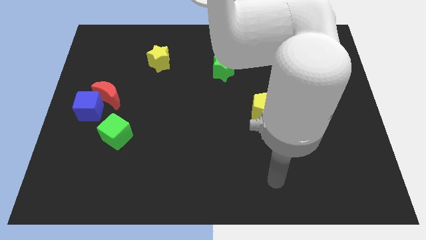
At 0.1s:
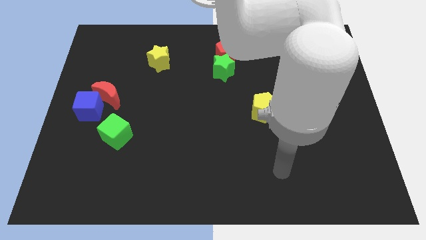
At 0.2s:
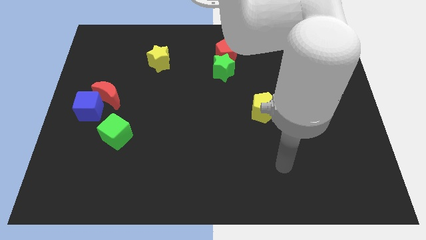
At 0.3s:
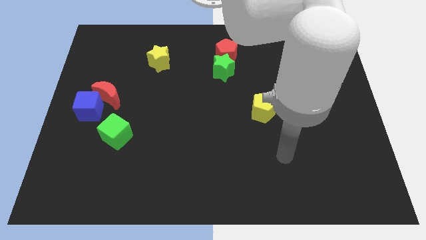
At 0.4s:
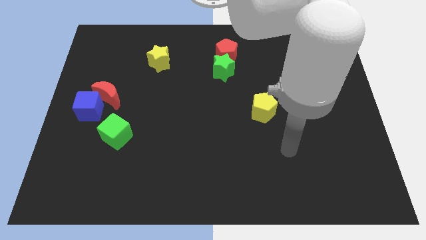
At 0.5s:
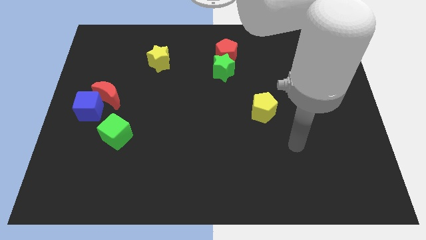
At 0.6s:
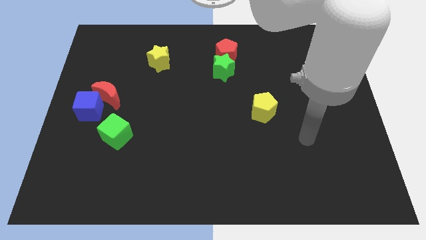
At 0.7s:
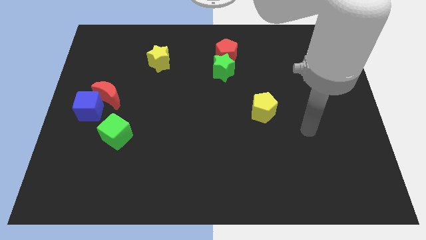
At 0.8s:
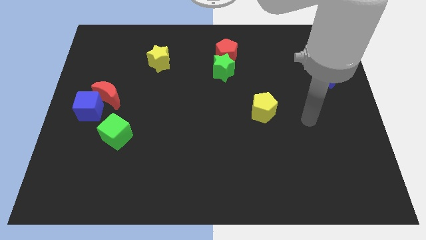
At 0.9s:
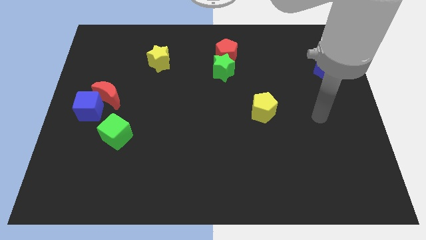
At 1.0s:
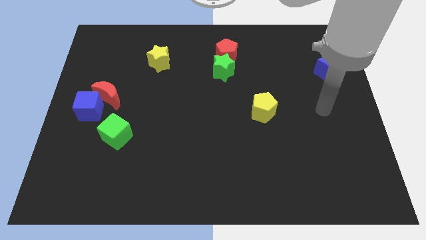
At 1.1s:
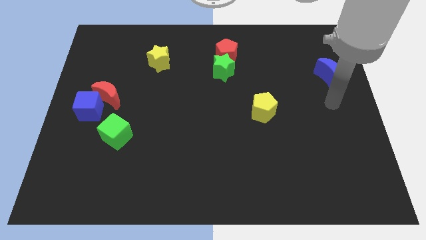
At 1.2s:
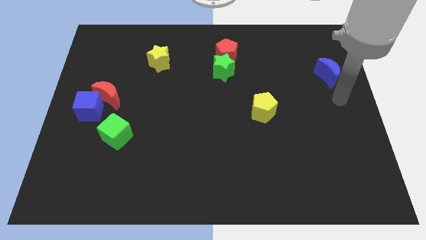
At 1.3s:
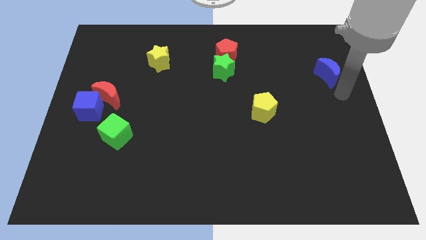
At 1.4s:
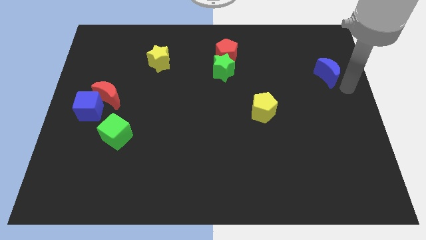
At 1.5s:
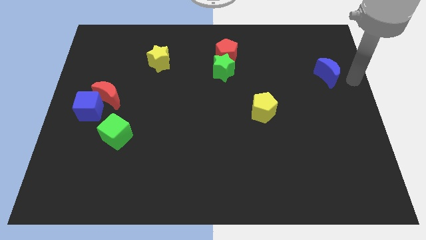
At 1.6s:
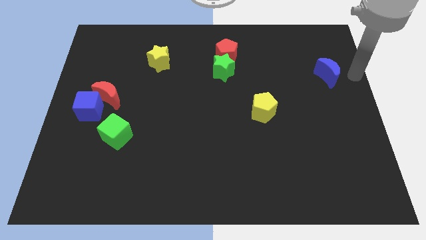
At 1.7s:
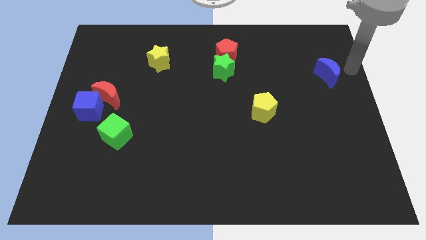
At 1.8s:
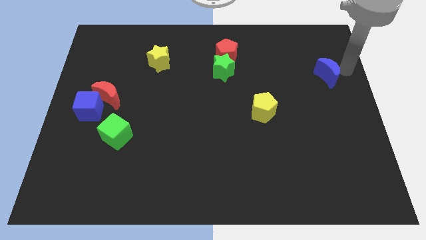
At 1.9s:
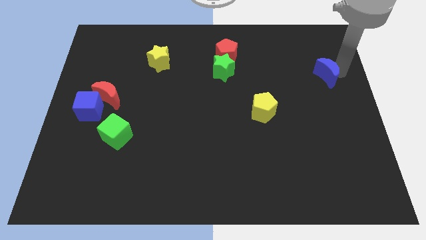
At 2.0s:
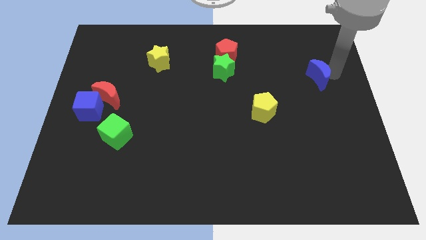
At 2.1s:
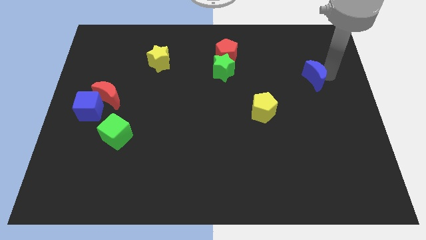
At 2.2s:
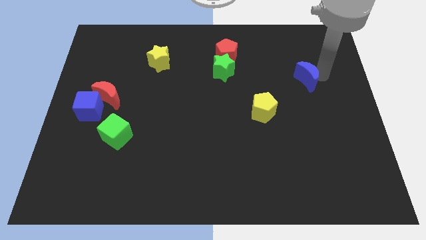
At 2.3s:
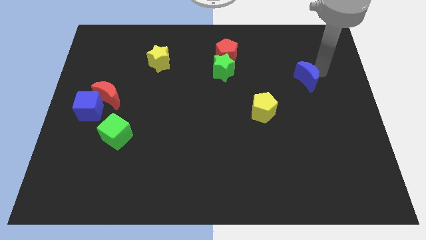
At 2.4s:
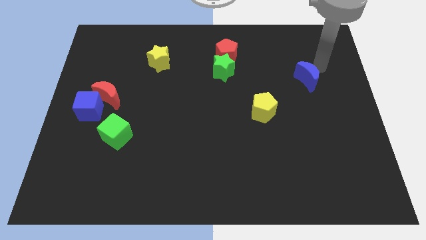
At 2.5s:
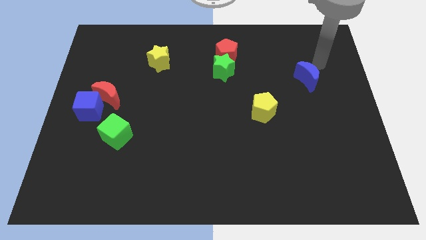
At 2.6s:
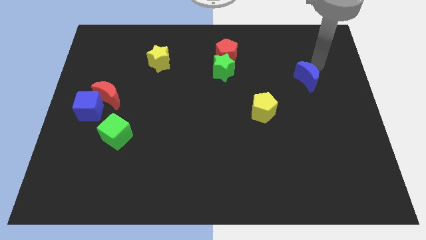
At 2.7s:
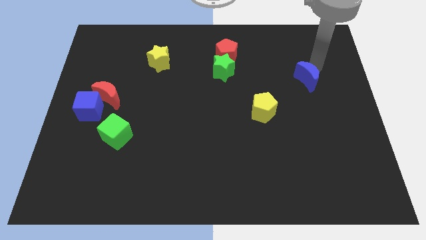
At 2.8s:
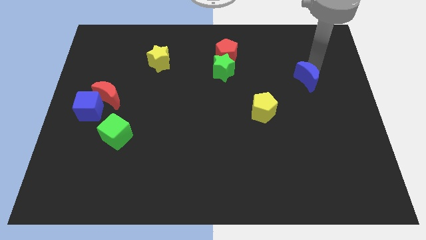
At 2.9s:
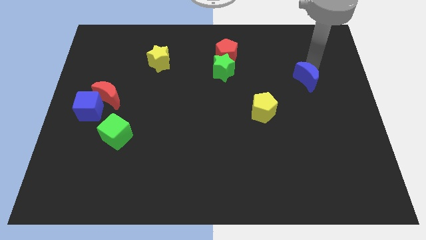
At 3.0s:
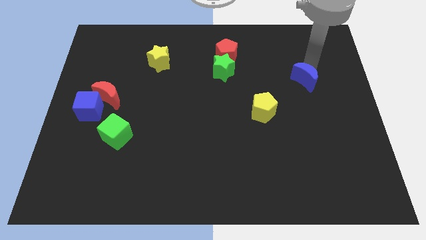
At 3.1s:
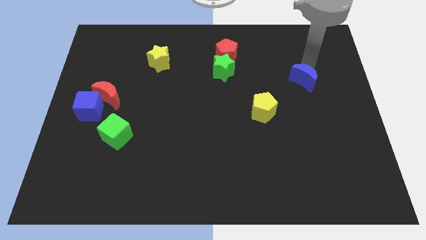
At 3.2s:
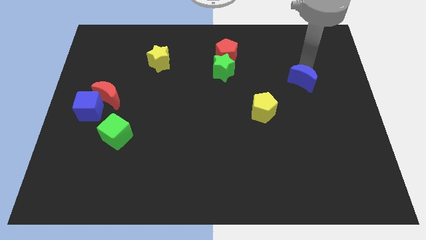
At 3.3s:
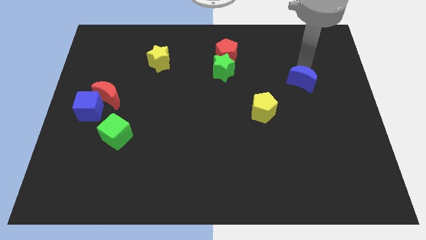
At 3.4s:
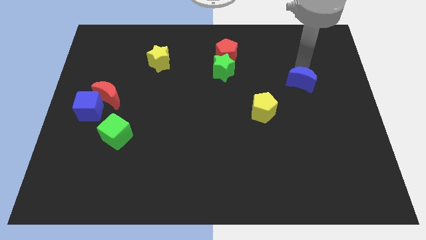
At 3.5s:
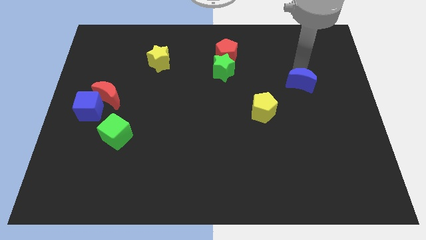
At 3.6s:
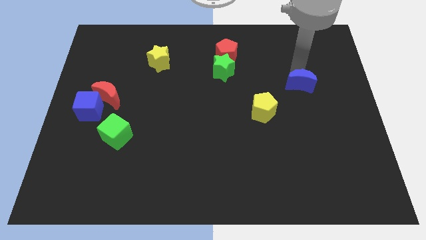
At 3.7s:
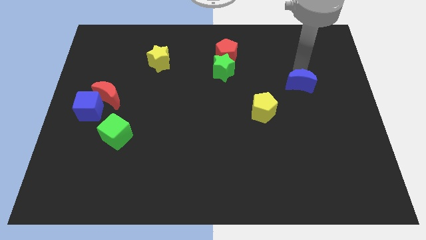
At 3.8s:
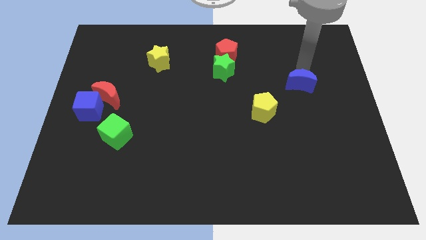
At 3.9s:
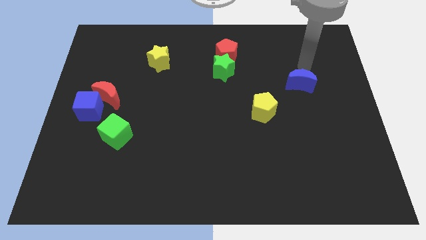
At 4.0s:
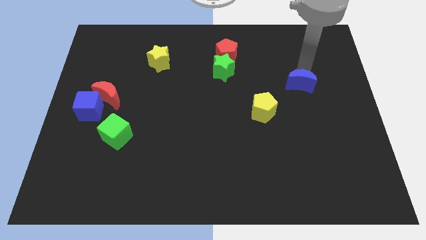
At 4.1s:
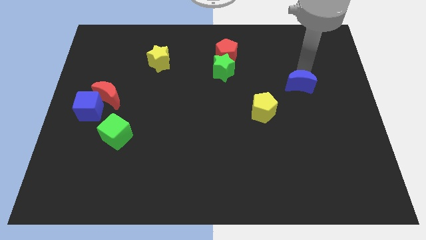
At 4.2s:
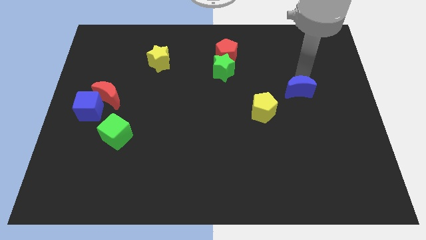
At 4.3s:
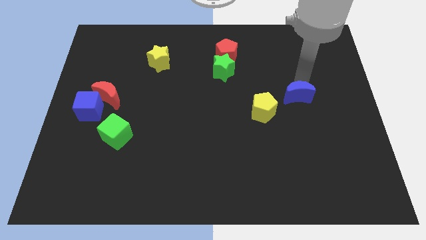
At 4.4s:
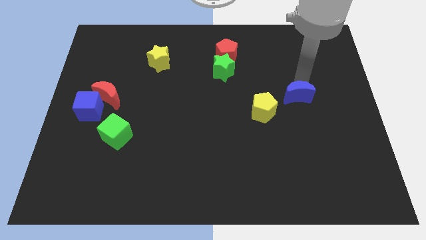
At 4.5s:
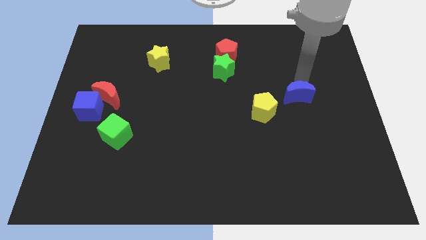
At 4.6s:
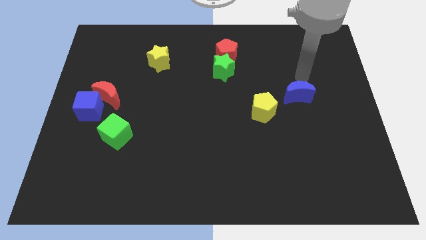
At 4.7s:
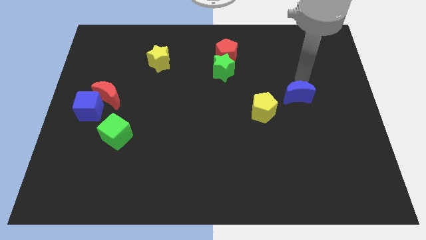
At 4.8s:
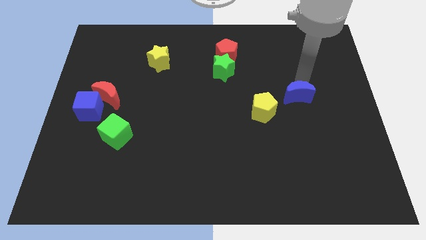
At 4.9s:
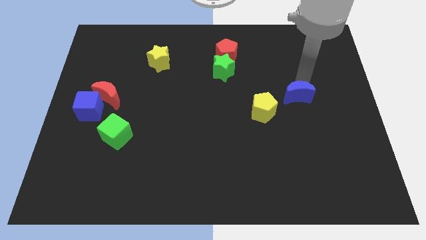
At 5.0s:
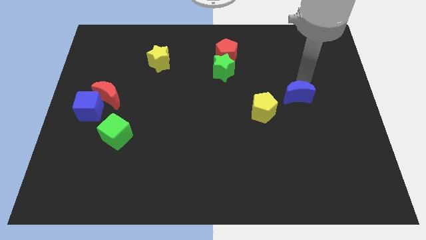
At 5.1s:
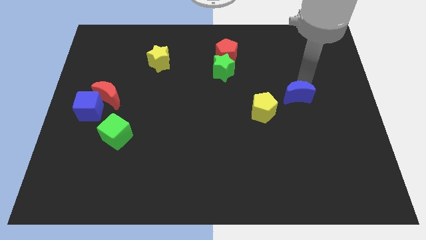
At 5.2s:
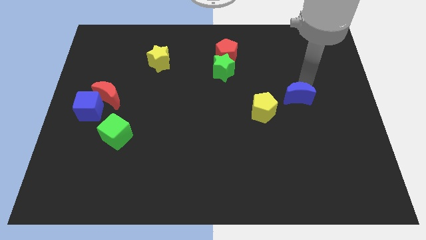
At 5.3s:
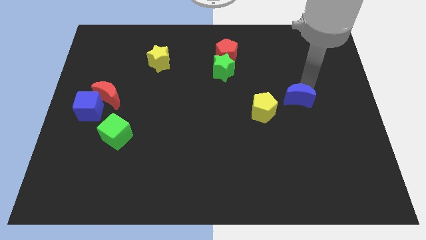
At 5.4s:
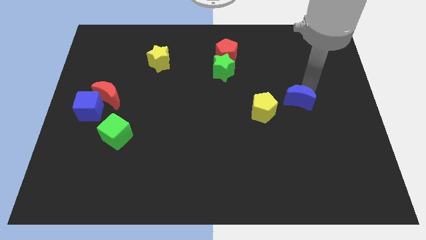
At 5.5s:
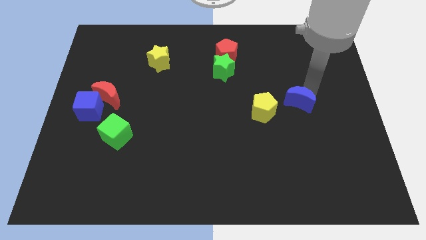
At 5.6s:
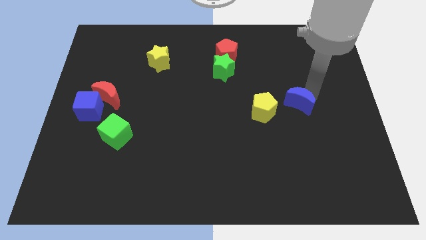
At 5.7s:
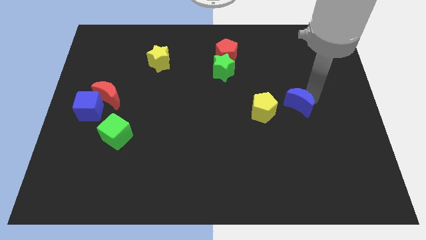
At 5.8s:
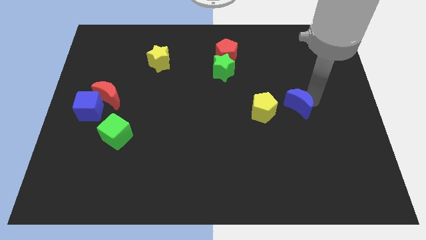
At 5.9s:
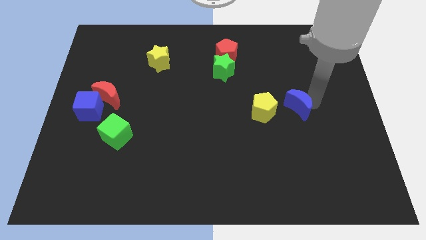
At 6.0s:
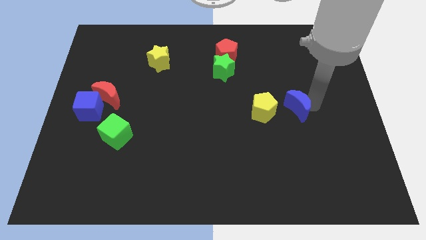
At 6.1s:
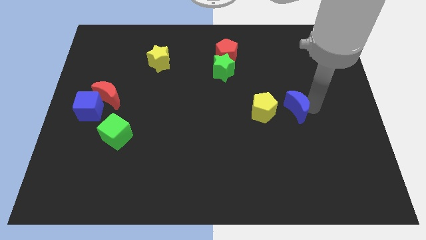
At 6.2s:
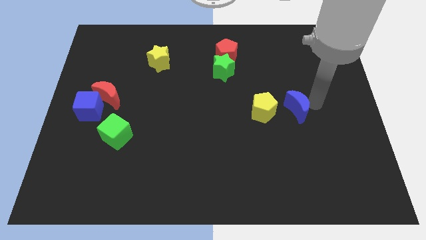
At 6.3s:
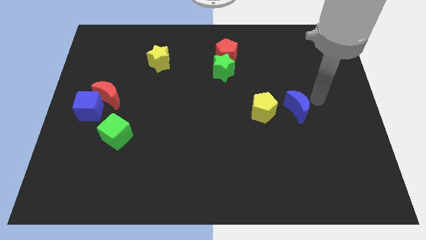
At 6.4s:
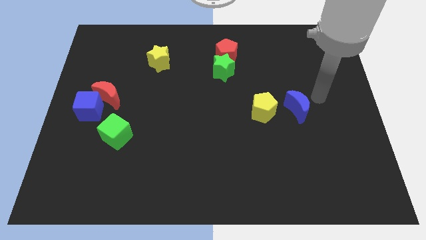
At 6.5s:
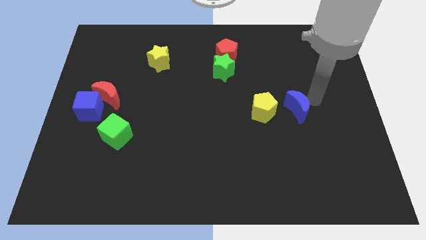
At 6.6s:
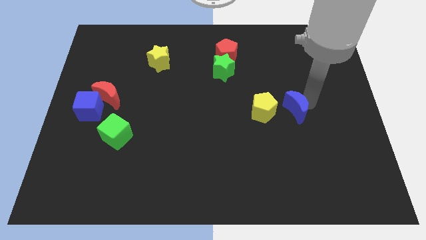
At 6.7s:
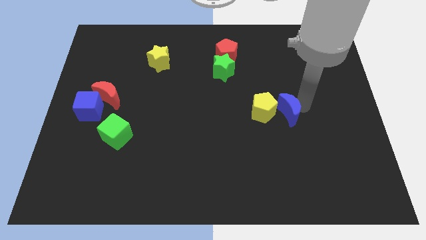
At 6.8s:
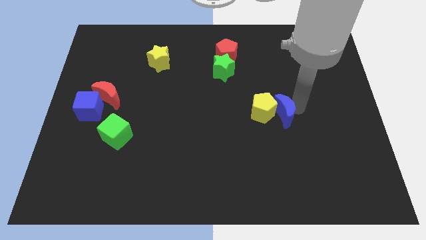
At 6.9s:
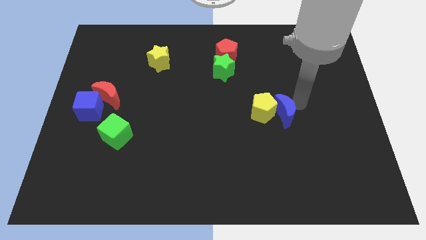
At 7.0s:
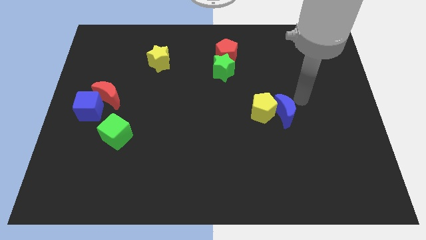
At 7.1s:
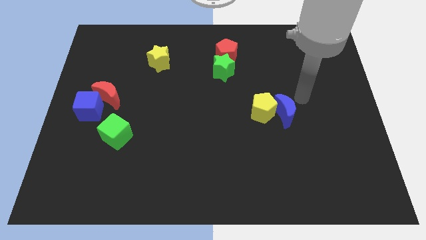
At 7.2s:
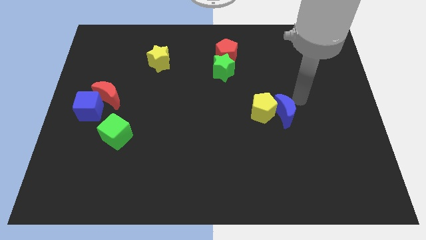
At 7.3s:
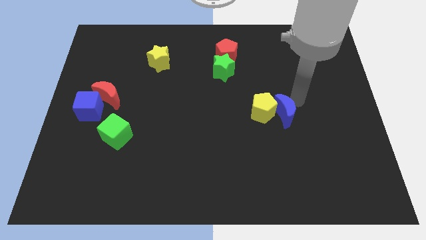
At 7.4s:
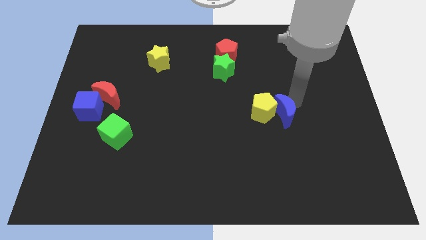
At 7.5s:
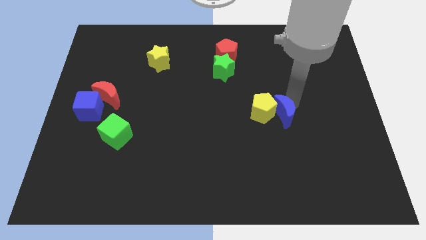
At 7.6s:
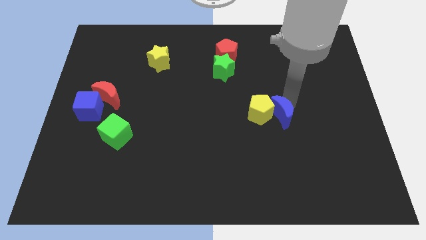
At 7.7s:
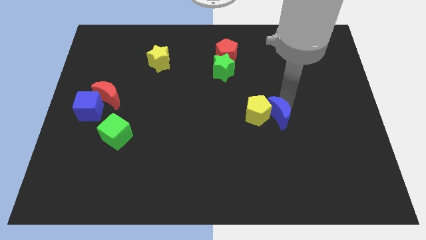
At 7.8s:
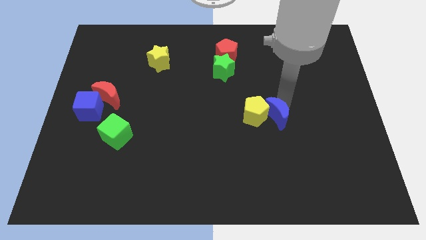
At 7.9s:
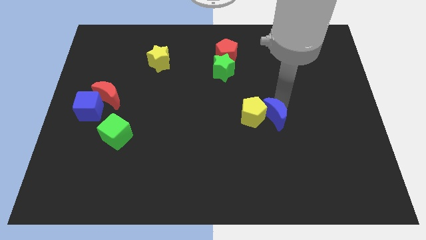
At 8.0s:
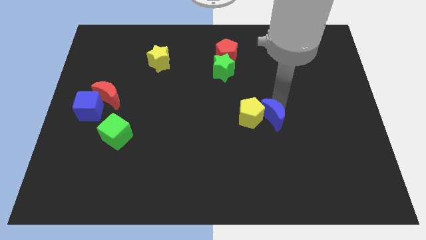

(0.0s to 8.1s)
move the blue moon downwards and left
